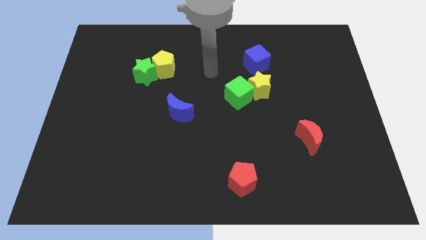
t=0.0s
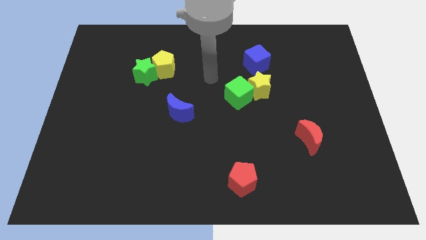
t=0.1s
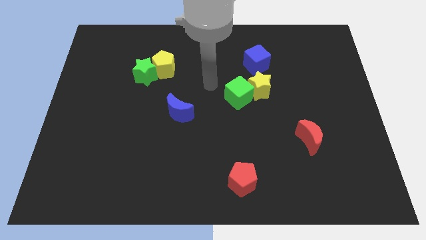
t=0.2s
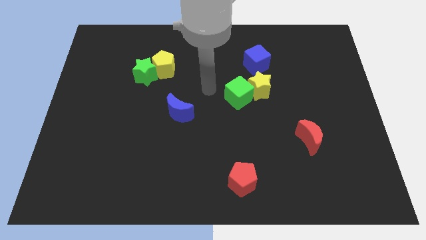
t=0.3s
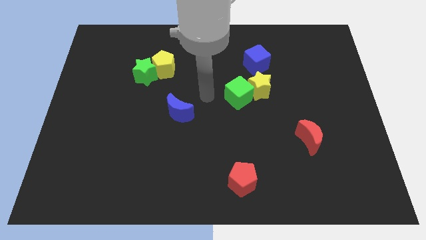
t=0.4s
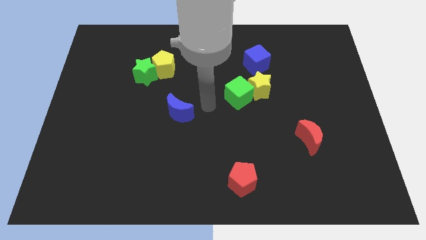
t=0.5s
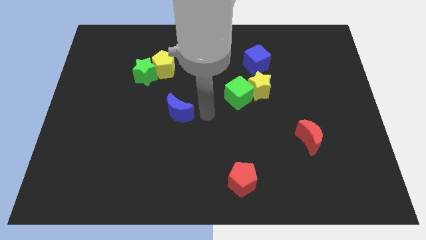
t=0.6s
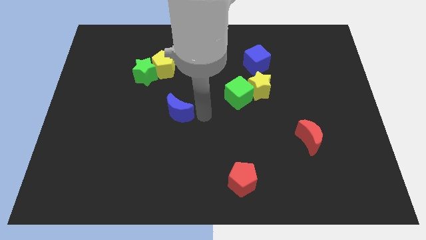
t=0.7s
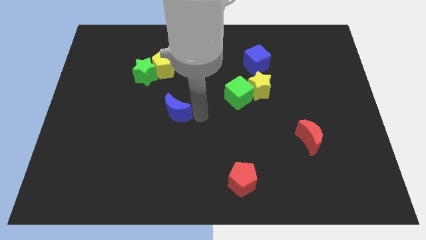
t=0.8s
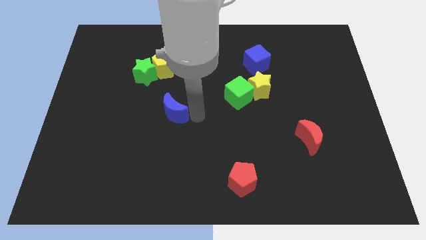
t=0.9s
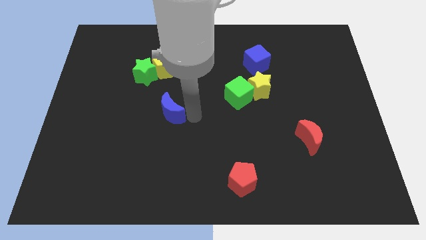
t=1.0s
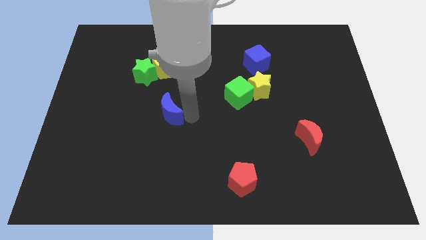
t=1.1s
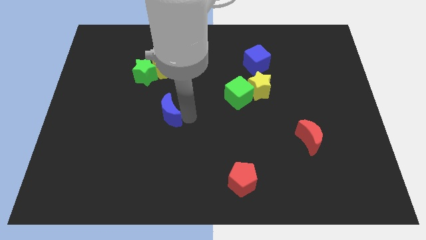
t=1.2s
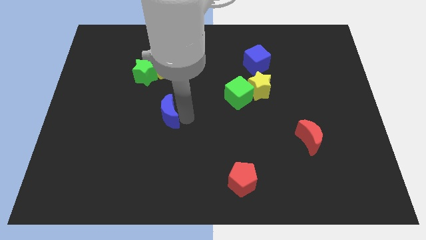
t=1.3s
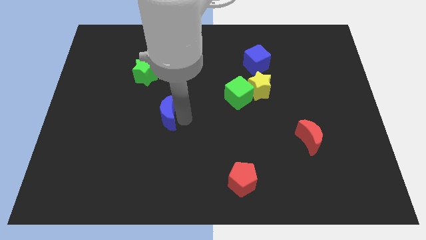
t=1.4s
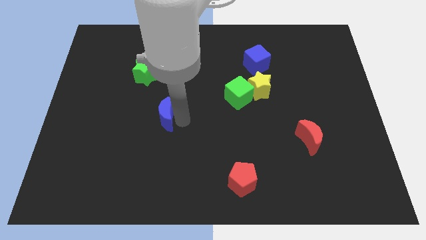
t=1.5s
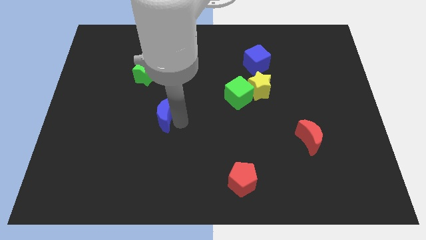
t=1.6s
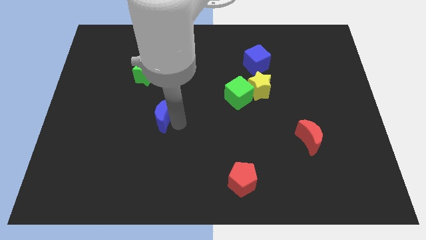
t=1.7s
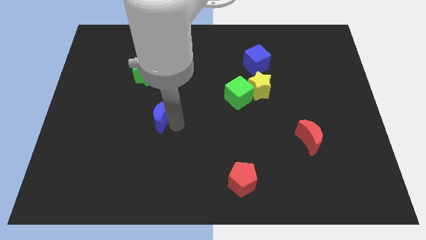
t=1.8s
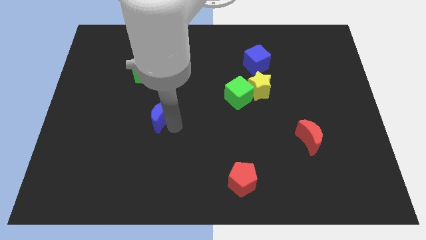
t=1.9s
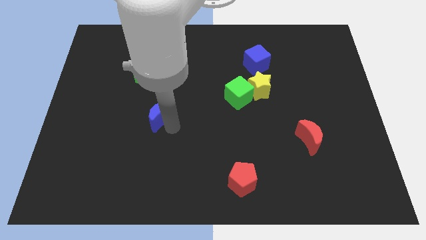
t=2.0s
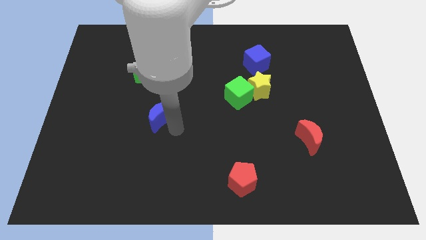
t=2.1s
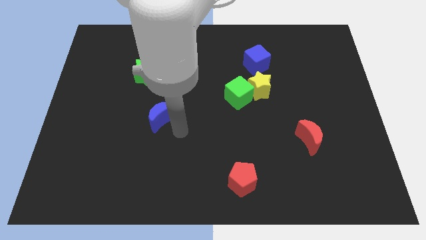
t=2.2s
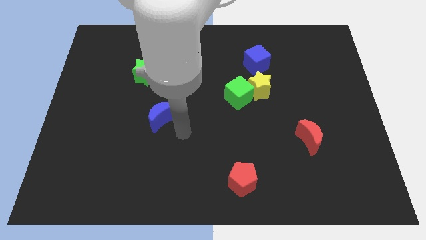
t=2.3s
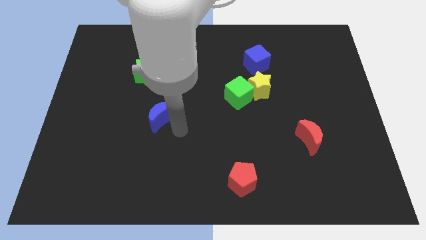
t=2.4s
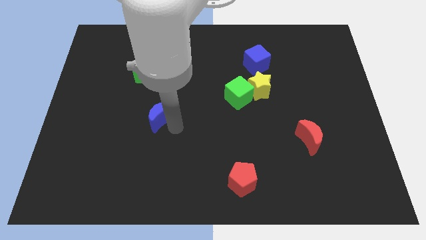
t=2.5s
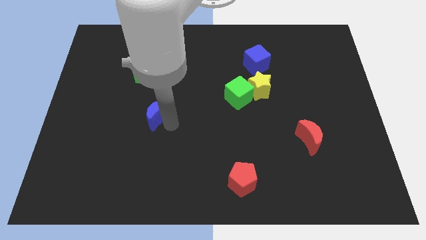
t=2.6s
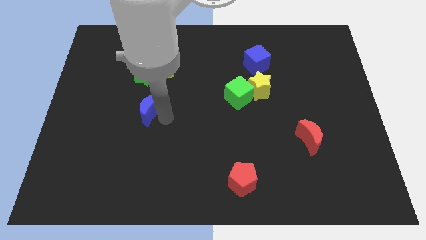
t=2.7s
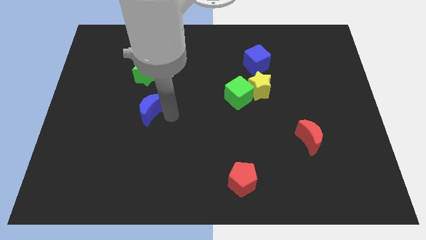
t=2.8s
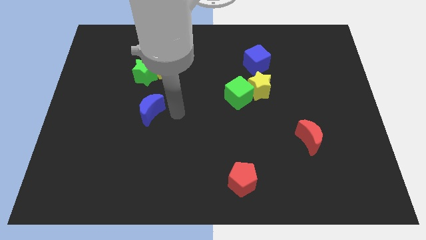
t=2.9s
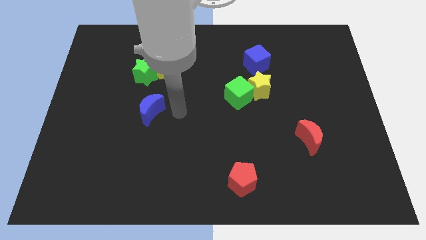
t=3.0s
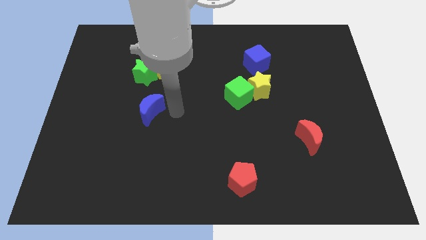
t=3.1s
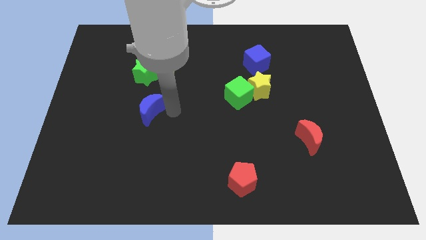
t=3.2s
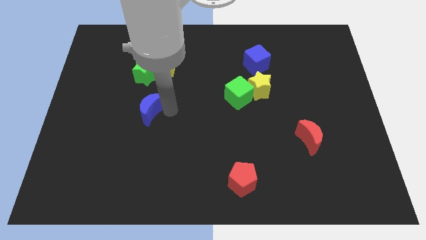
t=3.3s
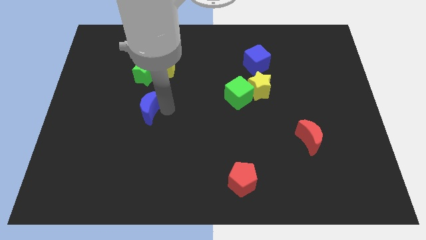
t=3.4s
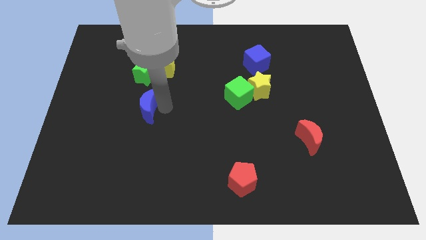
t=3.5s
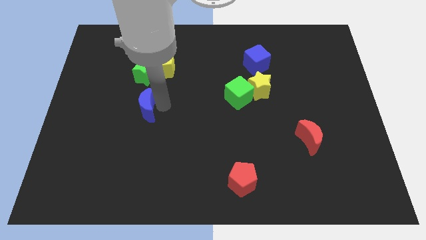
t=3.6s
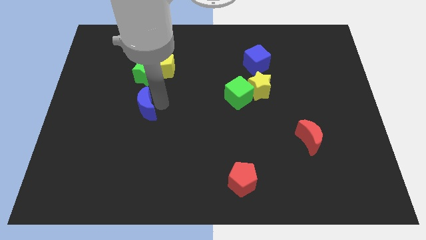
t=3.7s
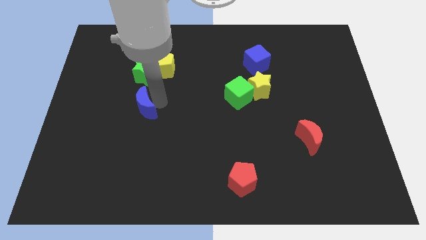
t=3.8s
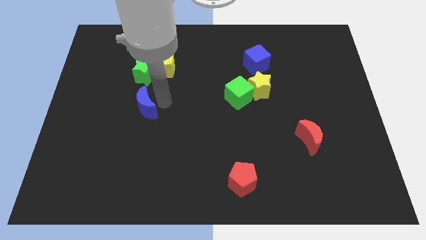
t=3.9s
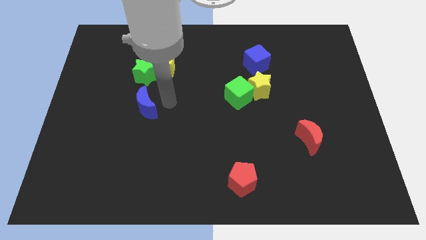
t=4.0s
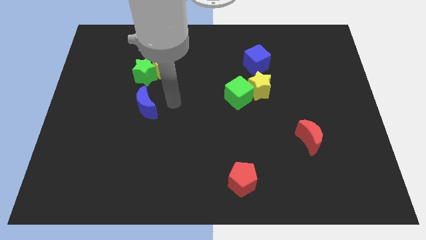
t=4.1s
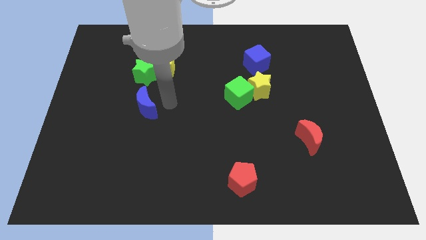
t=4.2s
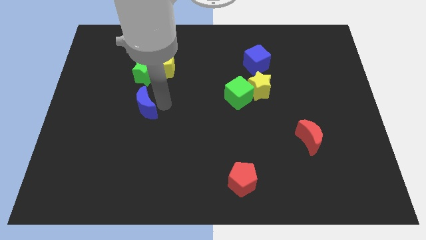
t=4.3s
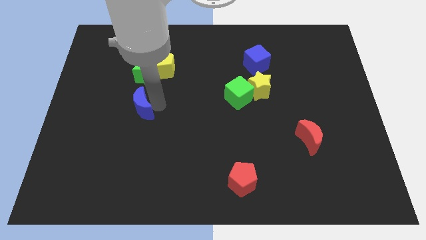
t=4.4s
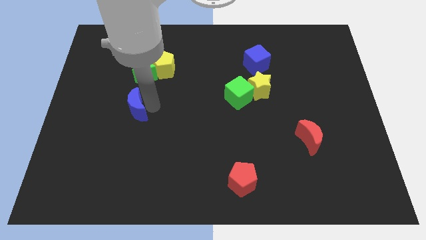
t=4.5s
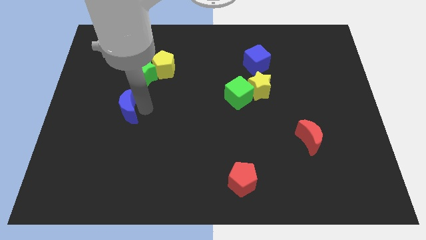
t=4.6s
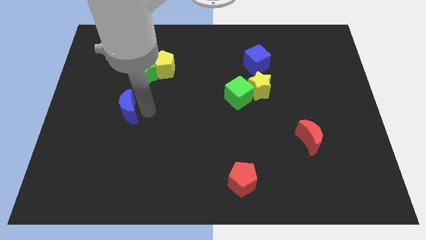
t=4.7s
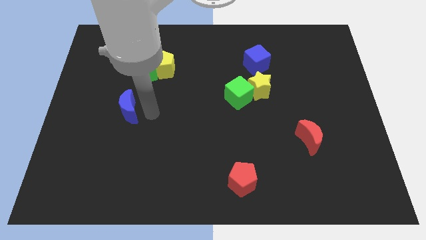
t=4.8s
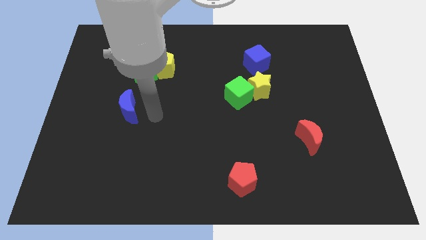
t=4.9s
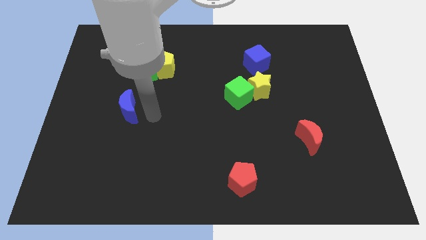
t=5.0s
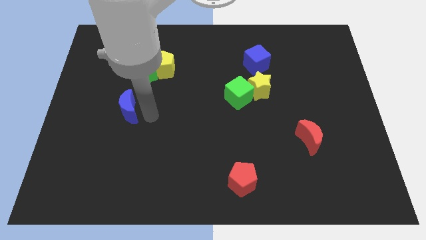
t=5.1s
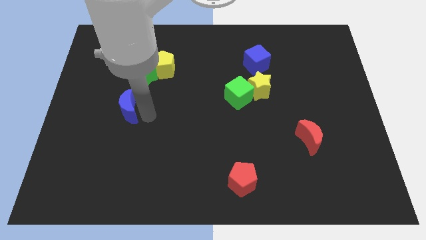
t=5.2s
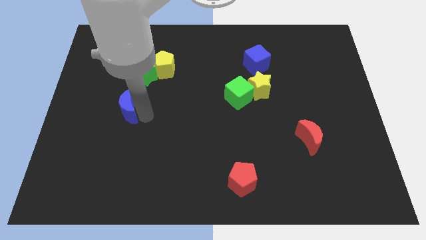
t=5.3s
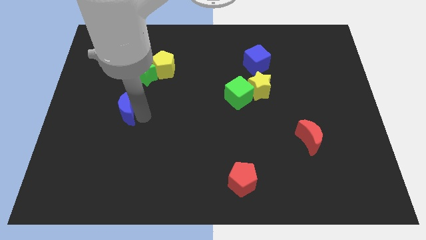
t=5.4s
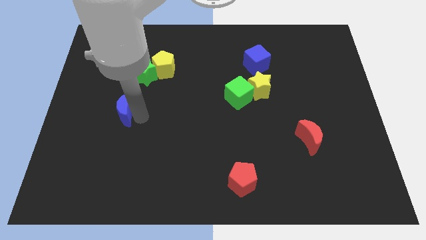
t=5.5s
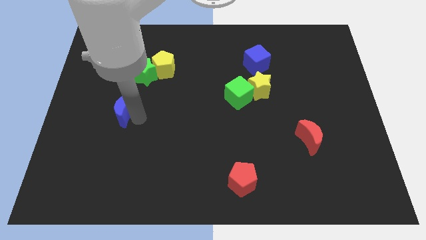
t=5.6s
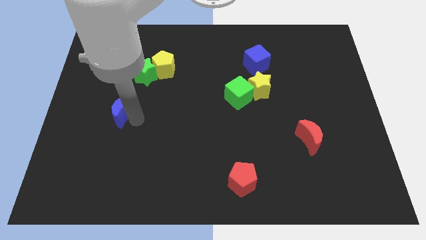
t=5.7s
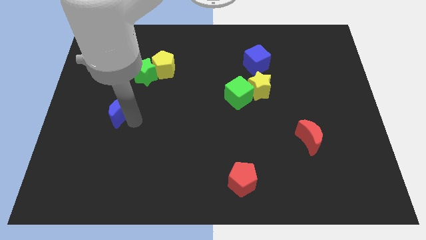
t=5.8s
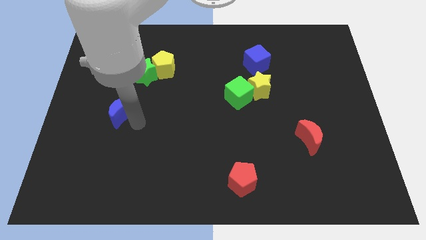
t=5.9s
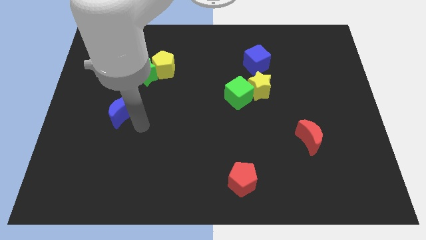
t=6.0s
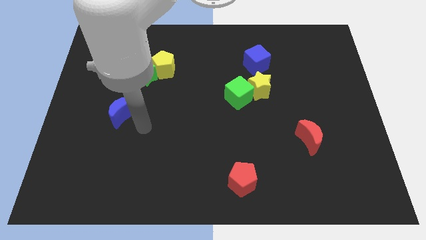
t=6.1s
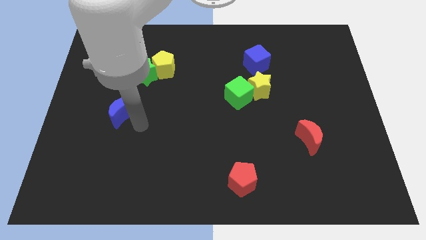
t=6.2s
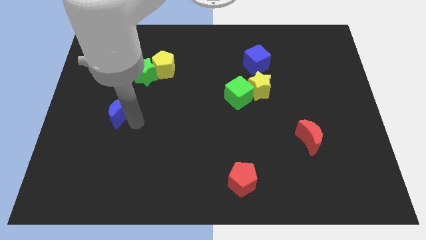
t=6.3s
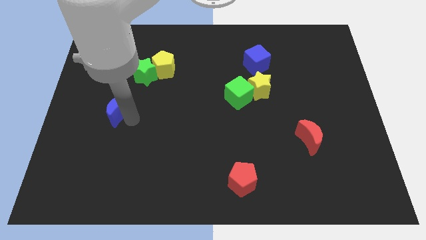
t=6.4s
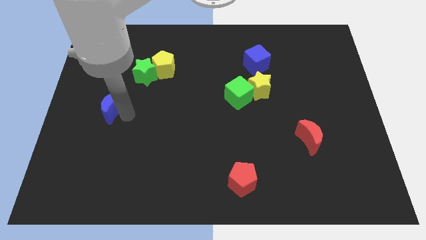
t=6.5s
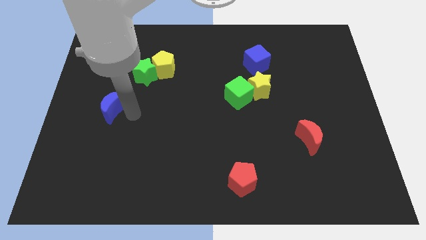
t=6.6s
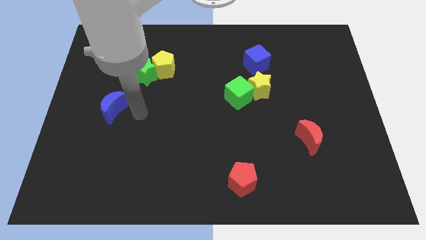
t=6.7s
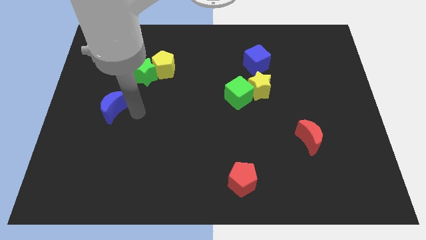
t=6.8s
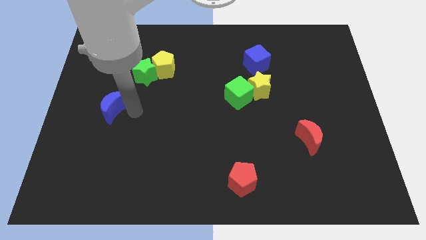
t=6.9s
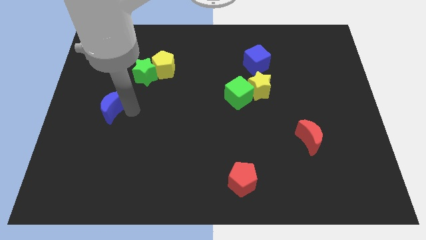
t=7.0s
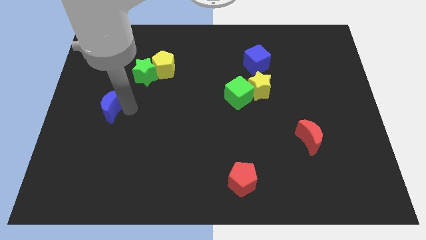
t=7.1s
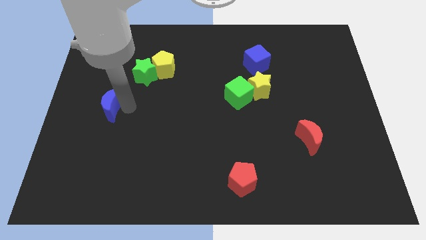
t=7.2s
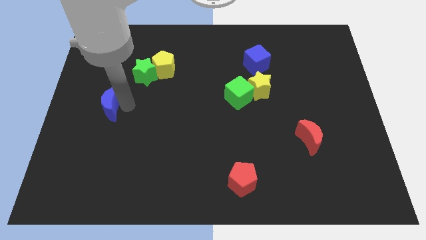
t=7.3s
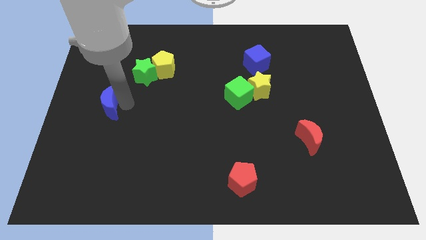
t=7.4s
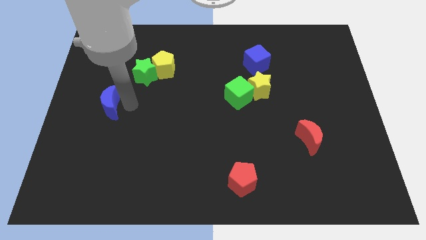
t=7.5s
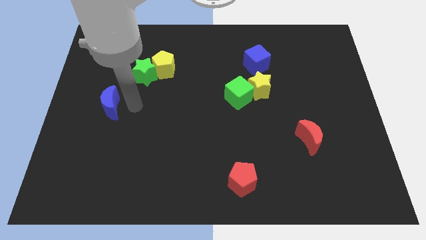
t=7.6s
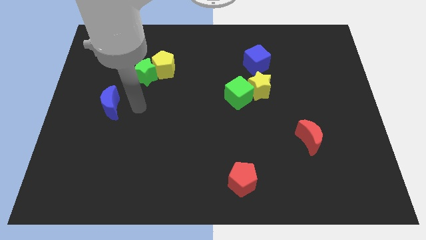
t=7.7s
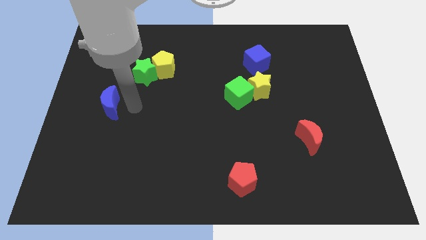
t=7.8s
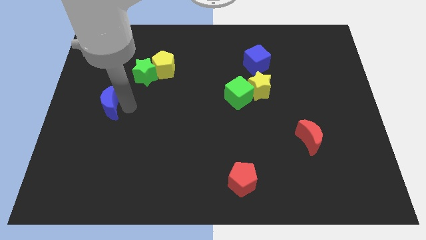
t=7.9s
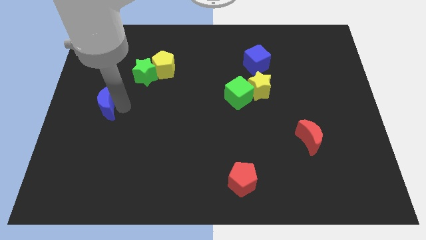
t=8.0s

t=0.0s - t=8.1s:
move the blue moon to the left side of the board
